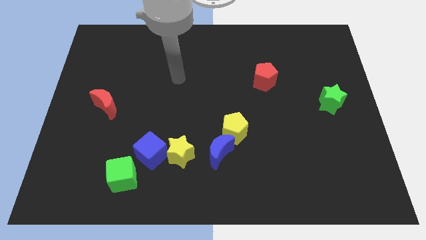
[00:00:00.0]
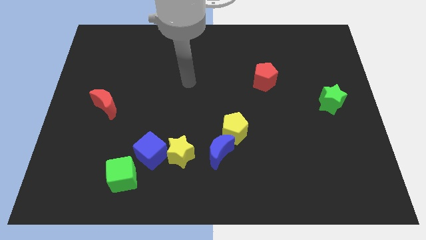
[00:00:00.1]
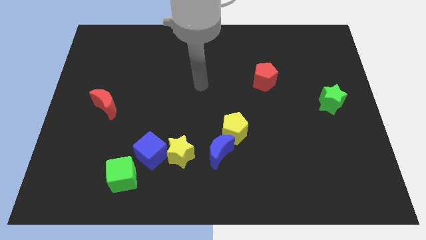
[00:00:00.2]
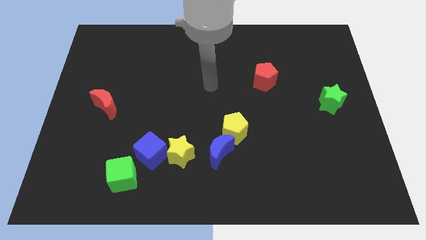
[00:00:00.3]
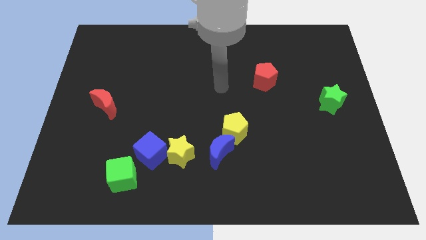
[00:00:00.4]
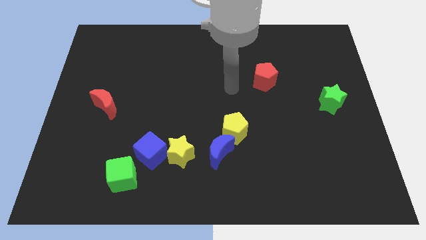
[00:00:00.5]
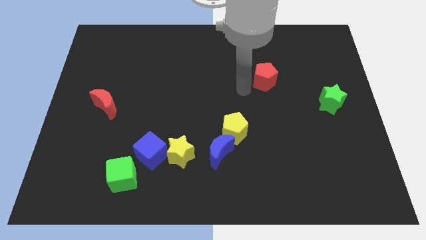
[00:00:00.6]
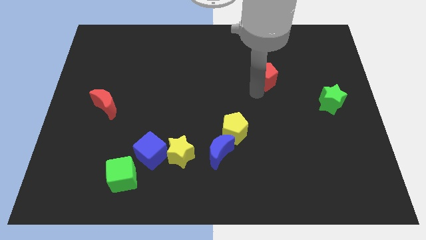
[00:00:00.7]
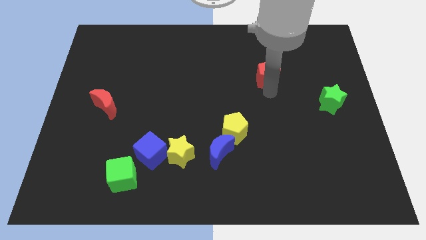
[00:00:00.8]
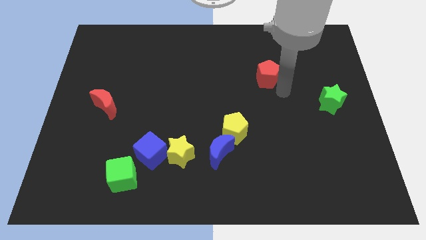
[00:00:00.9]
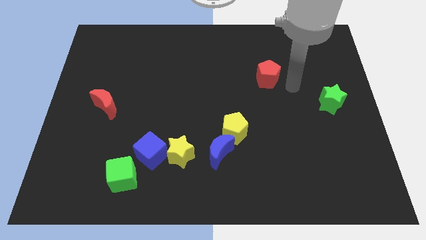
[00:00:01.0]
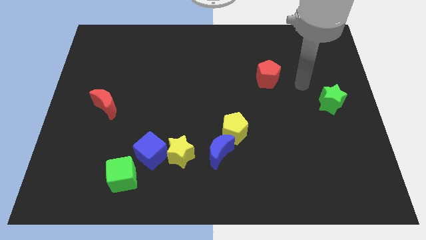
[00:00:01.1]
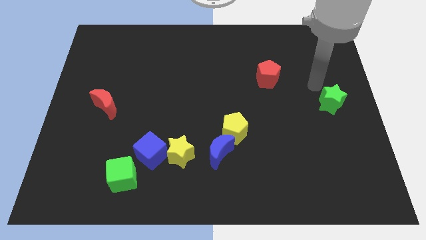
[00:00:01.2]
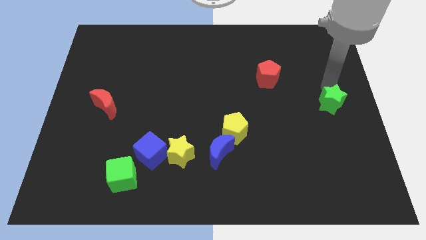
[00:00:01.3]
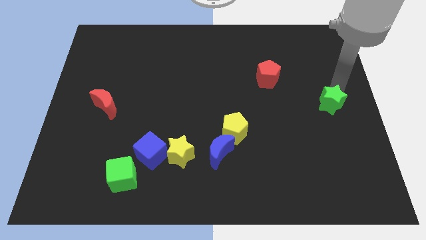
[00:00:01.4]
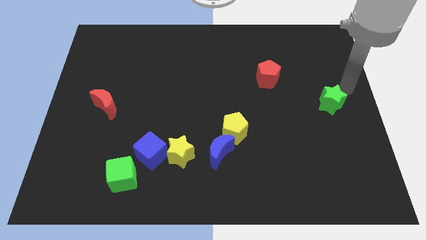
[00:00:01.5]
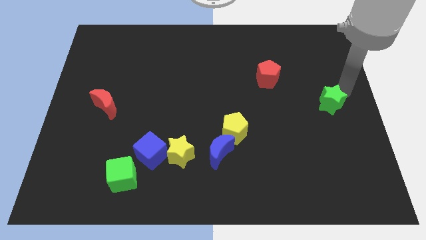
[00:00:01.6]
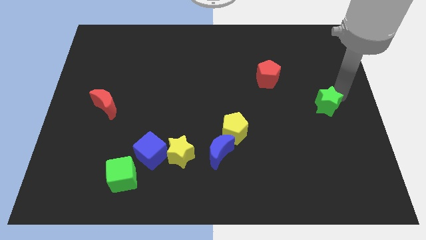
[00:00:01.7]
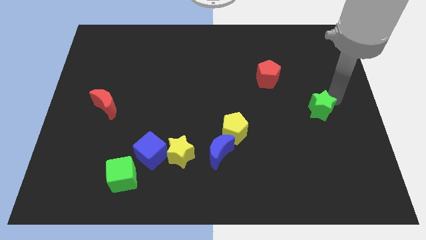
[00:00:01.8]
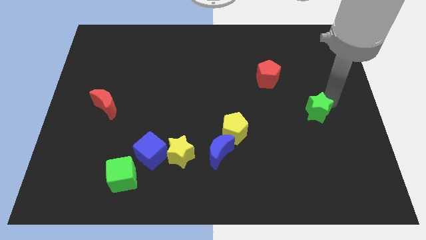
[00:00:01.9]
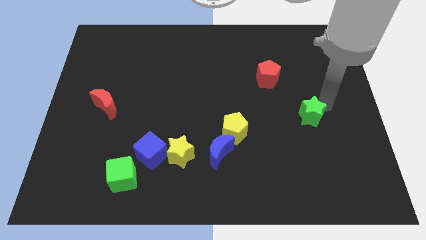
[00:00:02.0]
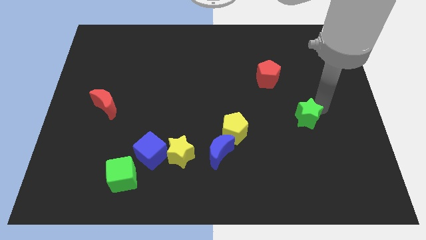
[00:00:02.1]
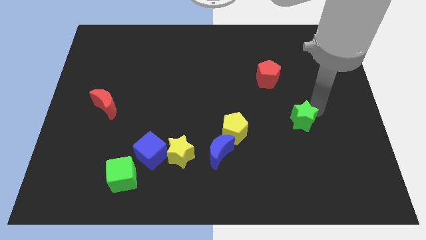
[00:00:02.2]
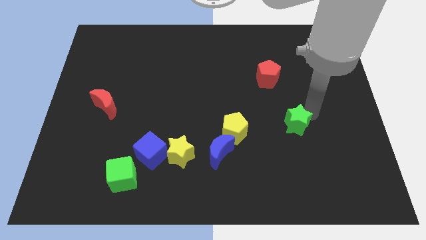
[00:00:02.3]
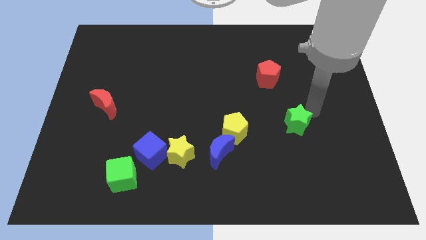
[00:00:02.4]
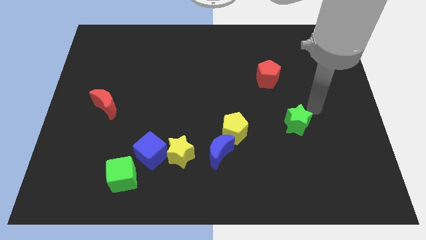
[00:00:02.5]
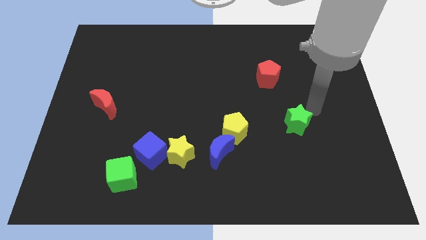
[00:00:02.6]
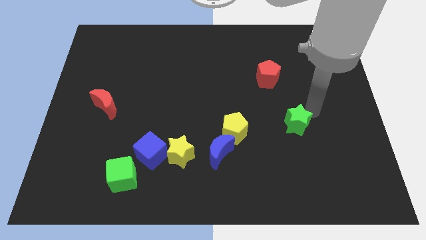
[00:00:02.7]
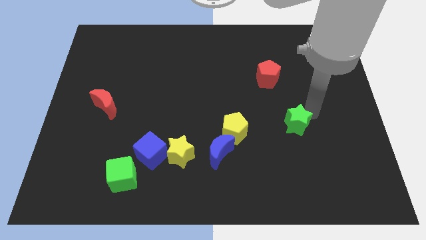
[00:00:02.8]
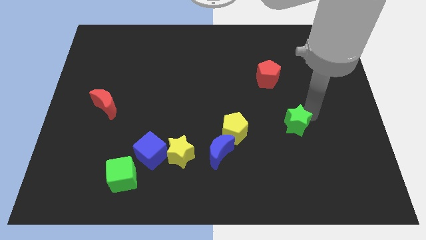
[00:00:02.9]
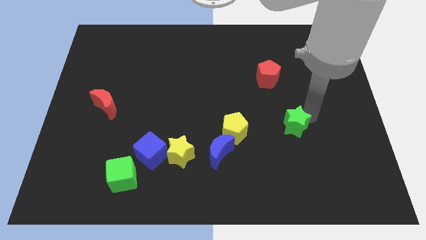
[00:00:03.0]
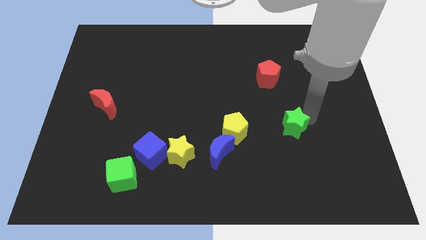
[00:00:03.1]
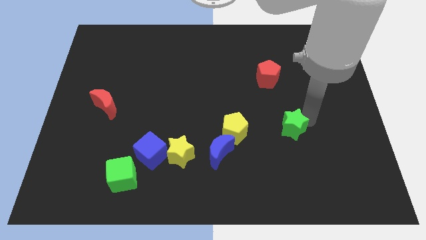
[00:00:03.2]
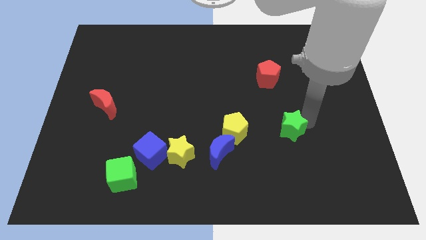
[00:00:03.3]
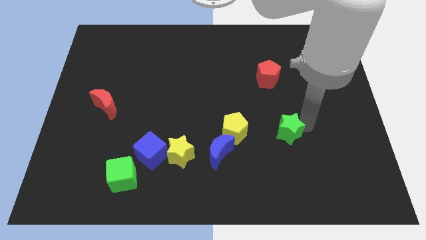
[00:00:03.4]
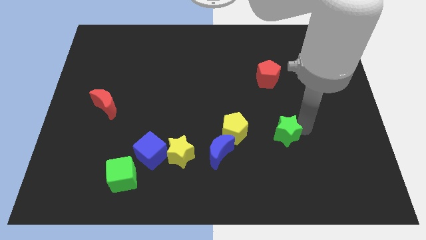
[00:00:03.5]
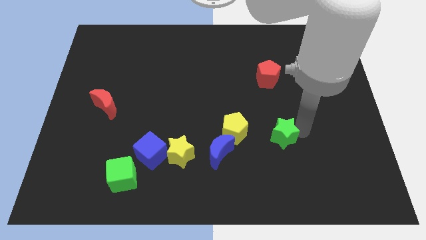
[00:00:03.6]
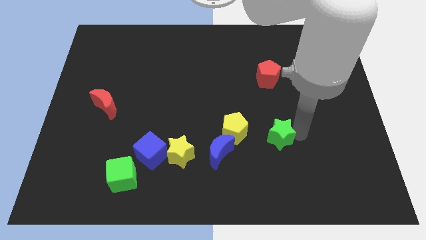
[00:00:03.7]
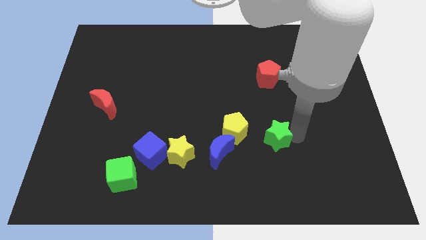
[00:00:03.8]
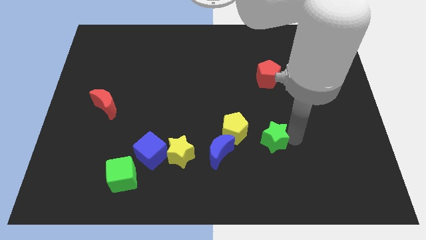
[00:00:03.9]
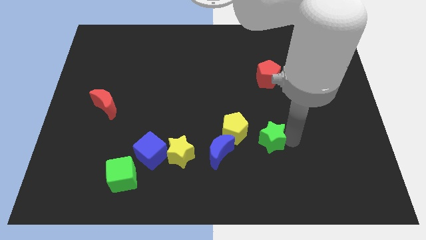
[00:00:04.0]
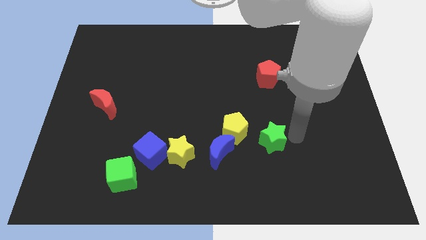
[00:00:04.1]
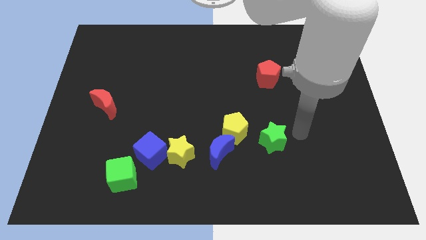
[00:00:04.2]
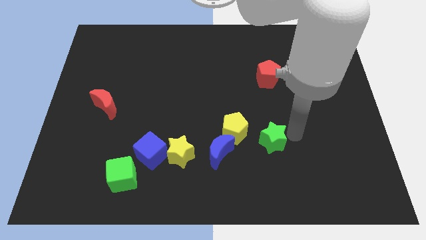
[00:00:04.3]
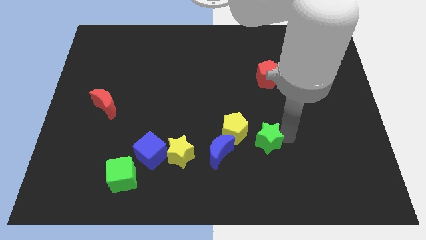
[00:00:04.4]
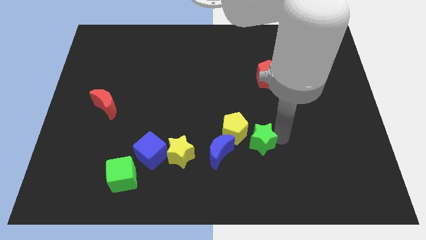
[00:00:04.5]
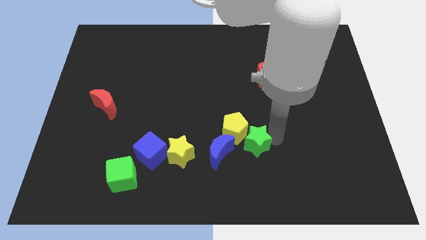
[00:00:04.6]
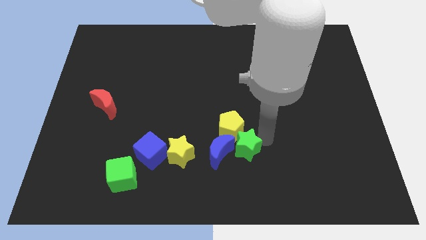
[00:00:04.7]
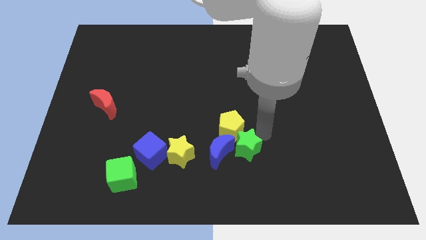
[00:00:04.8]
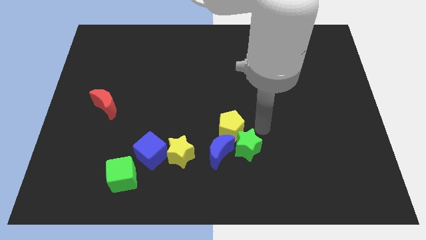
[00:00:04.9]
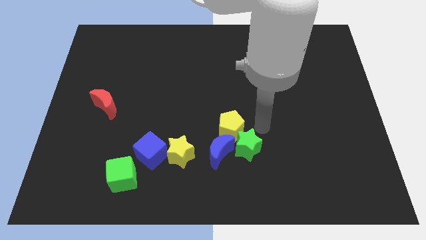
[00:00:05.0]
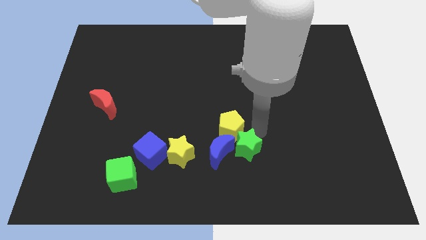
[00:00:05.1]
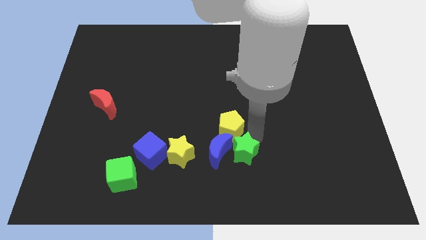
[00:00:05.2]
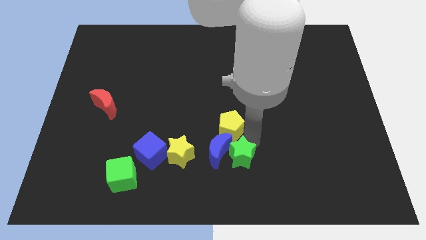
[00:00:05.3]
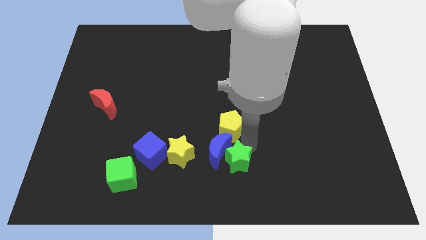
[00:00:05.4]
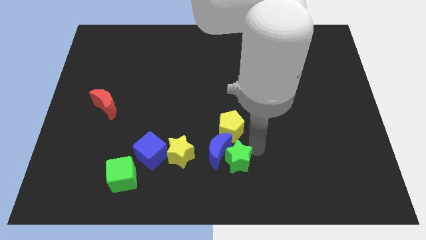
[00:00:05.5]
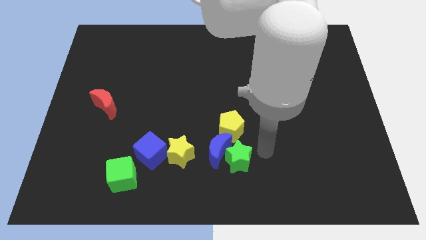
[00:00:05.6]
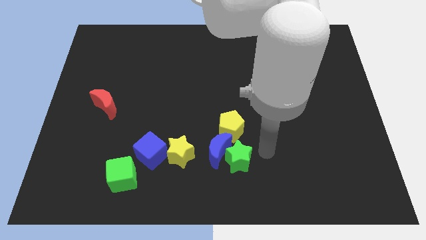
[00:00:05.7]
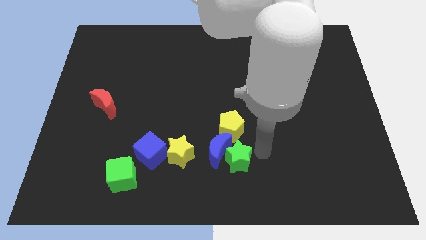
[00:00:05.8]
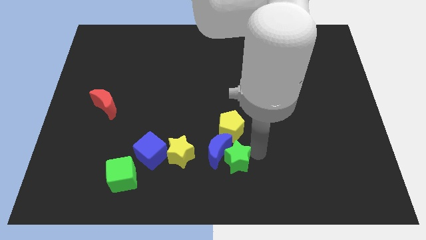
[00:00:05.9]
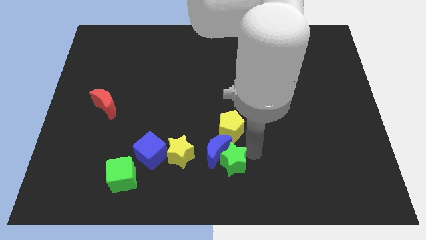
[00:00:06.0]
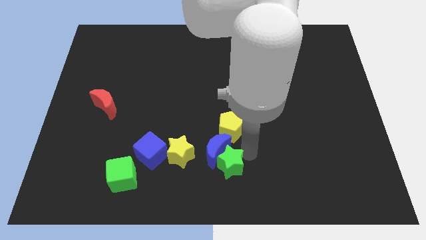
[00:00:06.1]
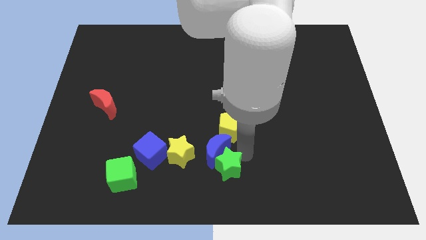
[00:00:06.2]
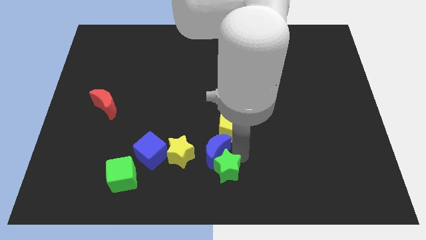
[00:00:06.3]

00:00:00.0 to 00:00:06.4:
put the green star to the bottom left side of the blue moon

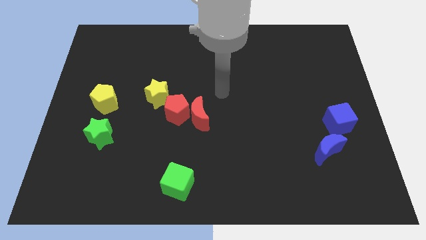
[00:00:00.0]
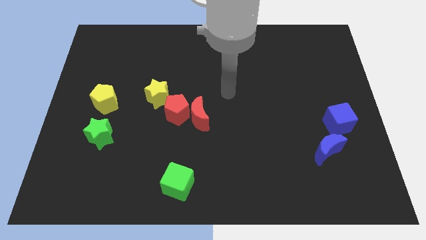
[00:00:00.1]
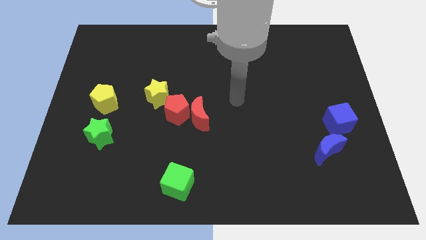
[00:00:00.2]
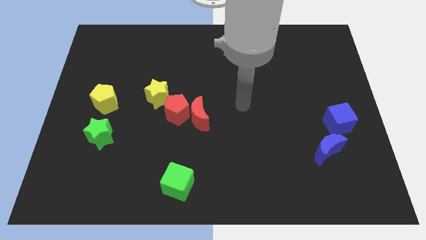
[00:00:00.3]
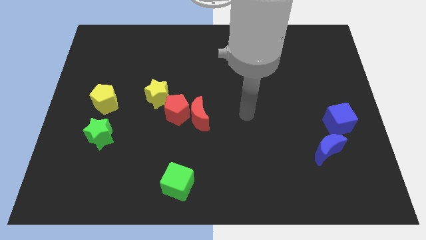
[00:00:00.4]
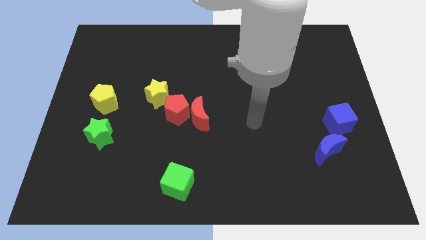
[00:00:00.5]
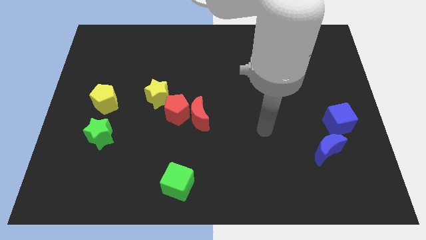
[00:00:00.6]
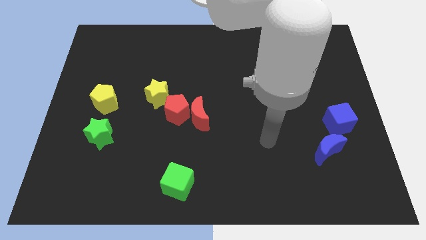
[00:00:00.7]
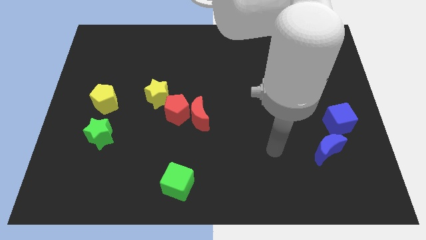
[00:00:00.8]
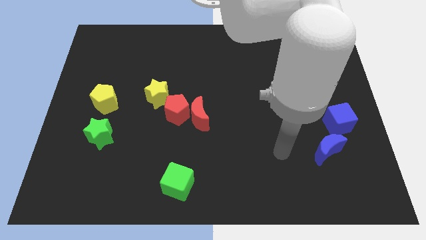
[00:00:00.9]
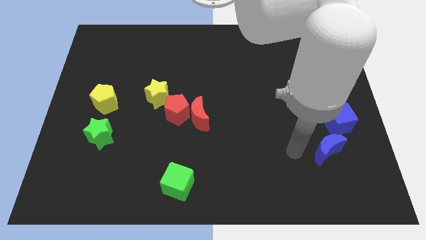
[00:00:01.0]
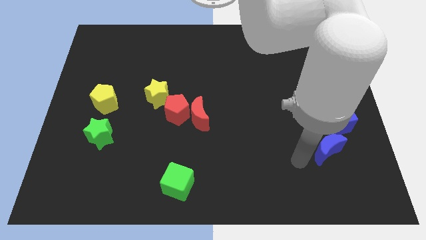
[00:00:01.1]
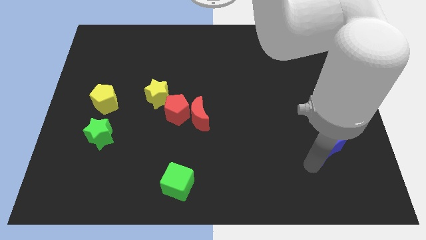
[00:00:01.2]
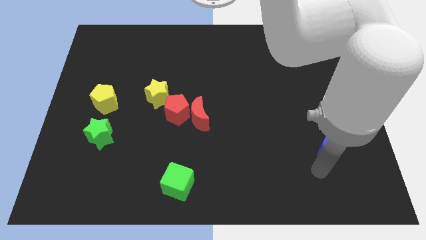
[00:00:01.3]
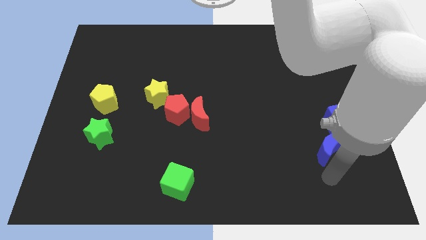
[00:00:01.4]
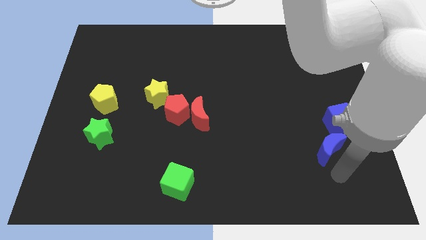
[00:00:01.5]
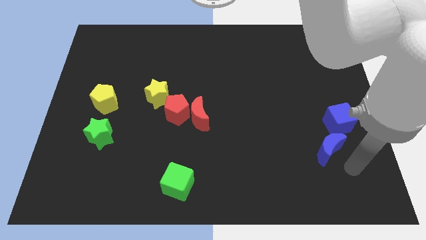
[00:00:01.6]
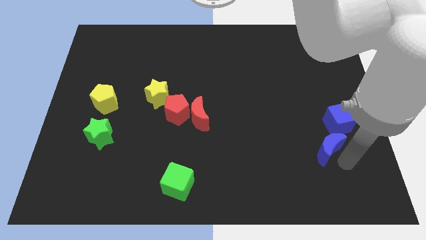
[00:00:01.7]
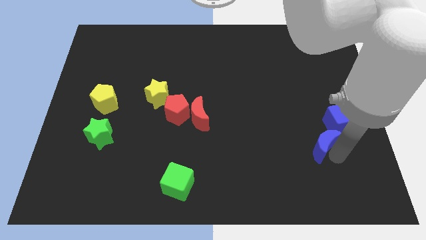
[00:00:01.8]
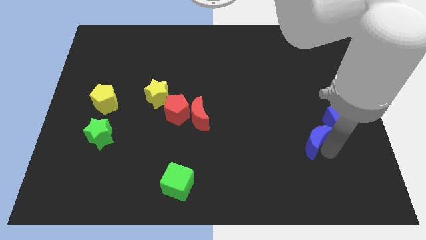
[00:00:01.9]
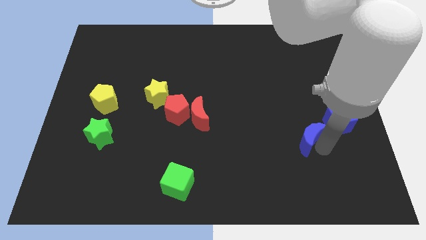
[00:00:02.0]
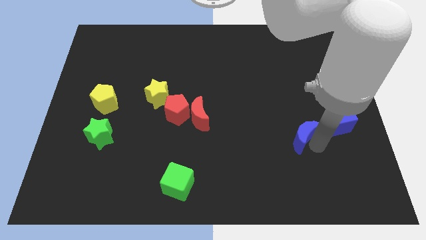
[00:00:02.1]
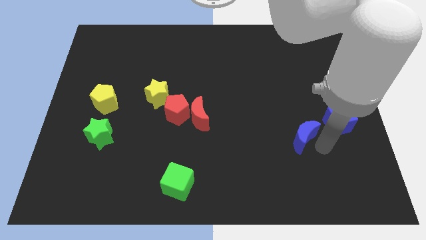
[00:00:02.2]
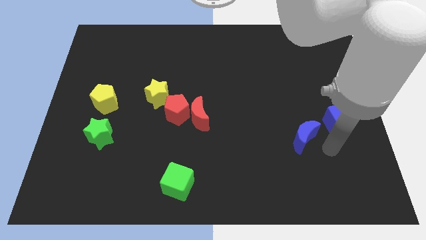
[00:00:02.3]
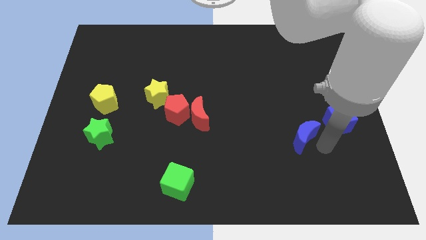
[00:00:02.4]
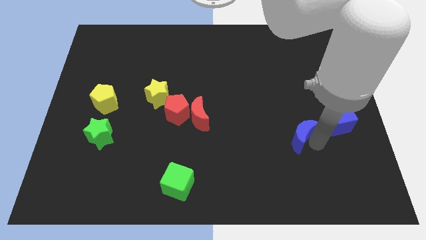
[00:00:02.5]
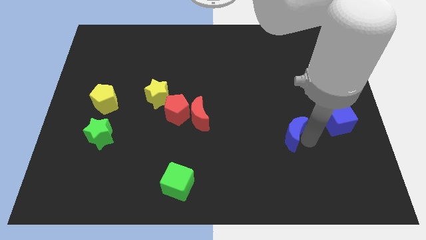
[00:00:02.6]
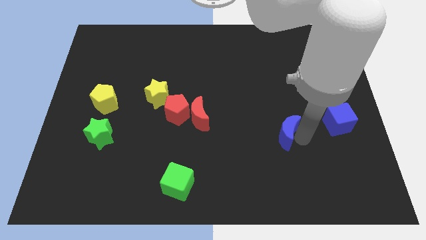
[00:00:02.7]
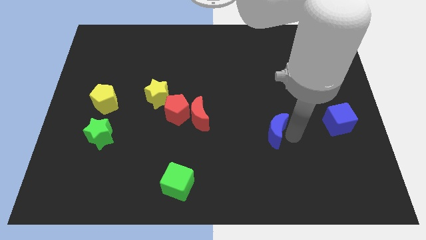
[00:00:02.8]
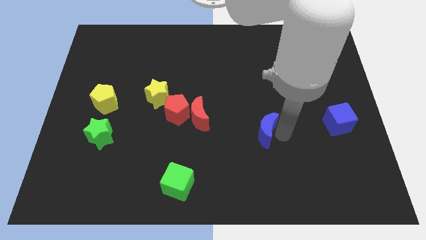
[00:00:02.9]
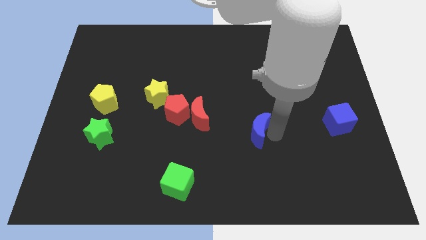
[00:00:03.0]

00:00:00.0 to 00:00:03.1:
move the blue moon to the right of the red moon
